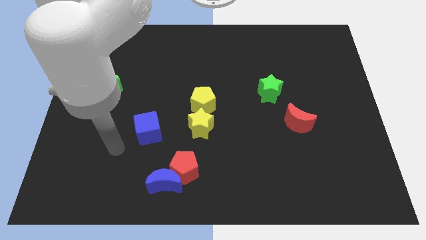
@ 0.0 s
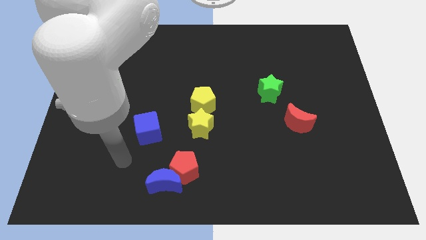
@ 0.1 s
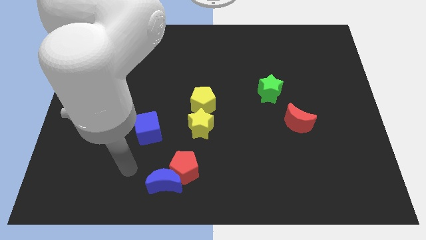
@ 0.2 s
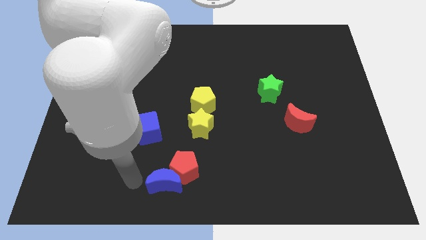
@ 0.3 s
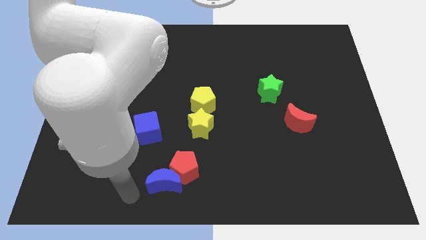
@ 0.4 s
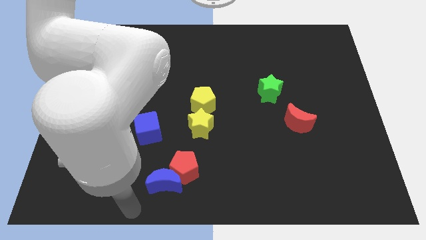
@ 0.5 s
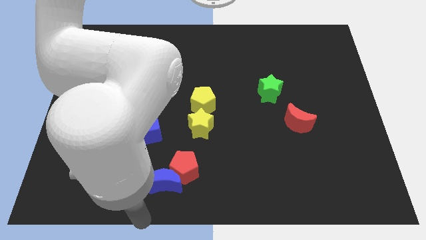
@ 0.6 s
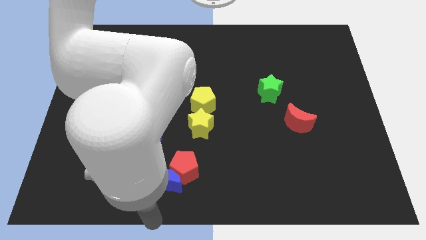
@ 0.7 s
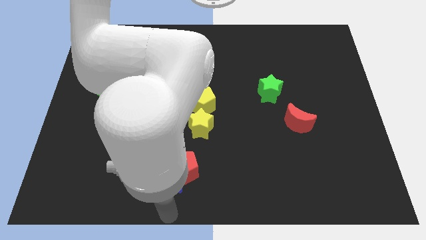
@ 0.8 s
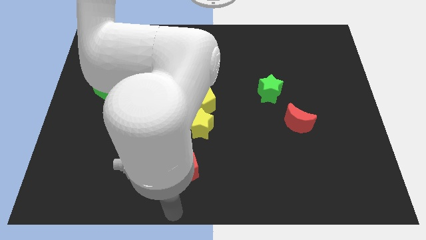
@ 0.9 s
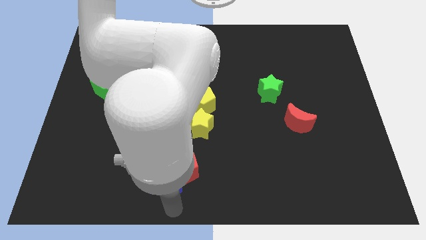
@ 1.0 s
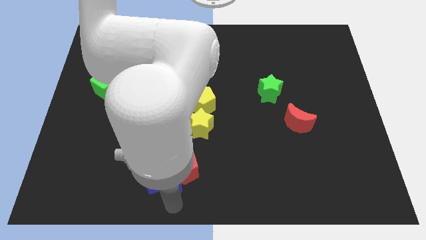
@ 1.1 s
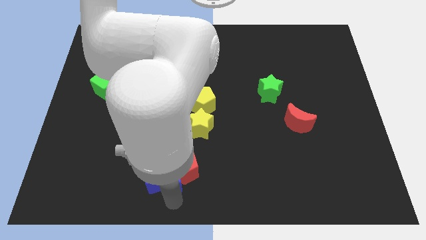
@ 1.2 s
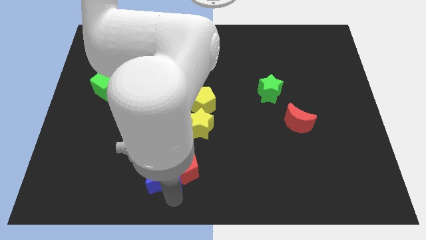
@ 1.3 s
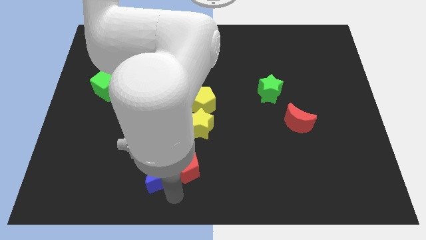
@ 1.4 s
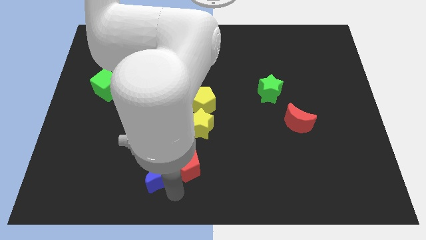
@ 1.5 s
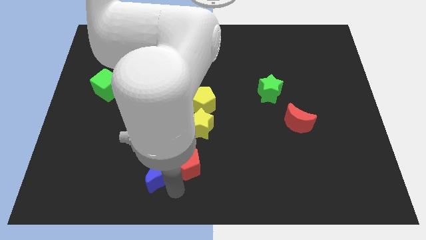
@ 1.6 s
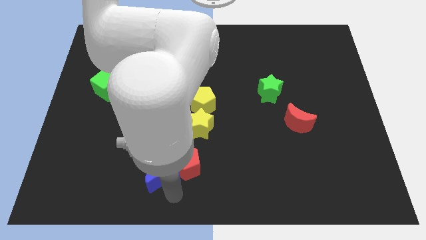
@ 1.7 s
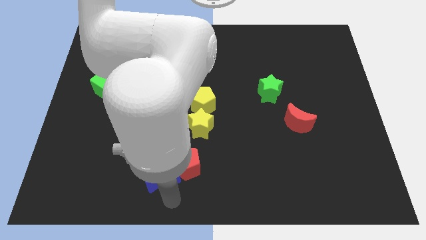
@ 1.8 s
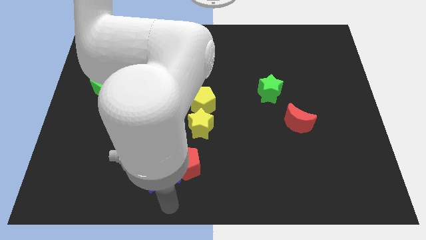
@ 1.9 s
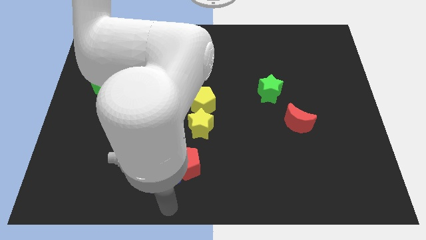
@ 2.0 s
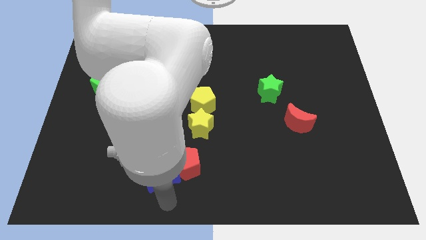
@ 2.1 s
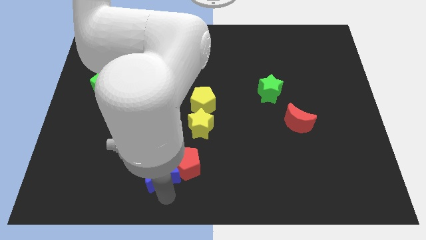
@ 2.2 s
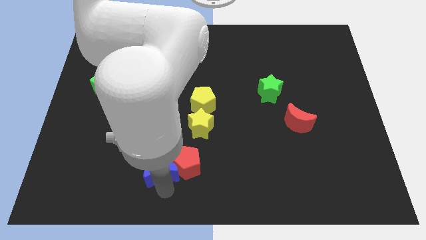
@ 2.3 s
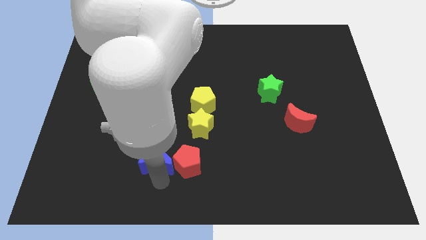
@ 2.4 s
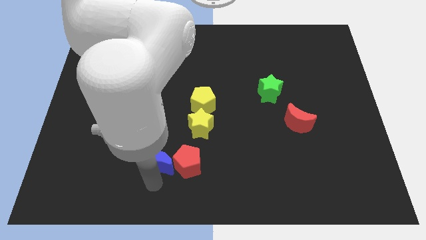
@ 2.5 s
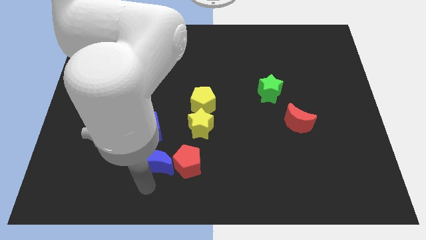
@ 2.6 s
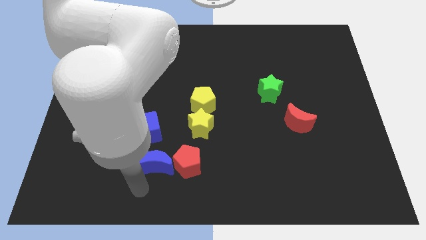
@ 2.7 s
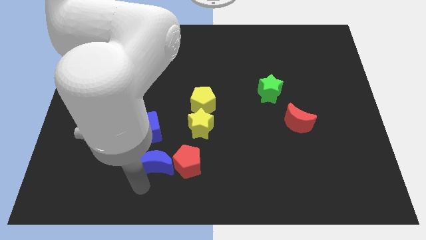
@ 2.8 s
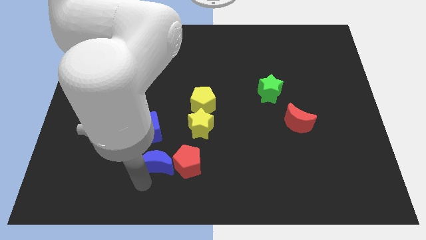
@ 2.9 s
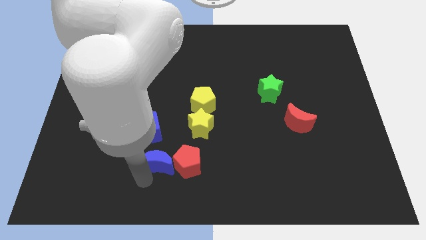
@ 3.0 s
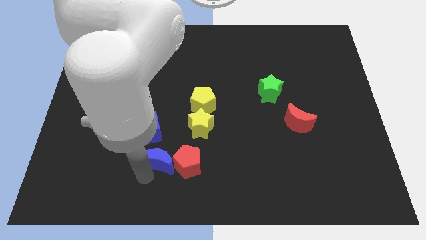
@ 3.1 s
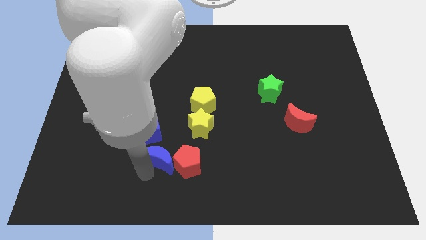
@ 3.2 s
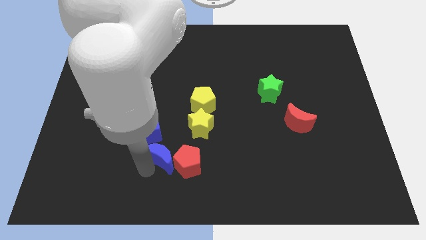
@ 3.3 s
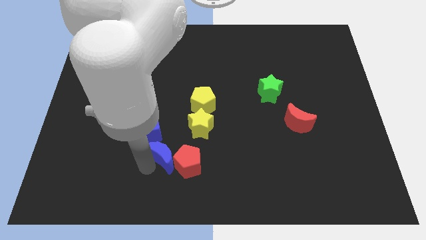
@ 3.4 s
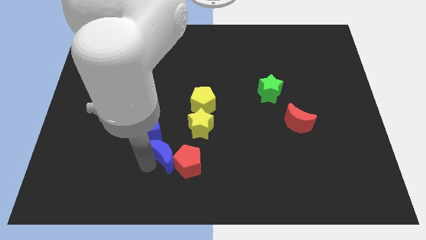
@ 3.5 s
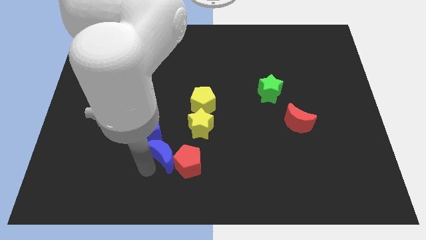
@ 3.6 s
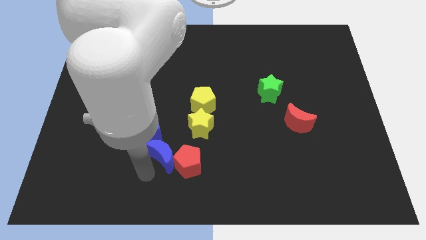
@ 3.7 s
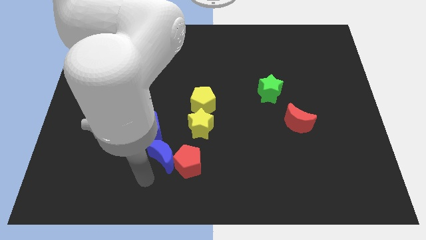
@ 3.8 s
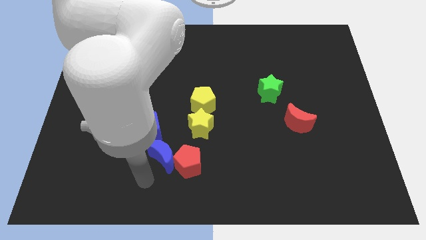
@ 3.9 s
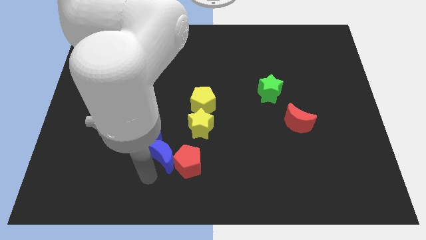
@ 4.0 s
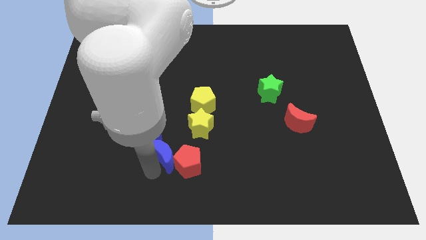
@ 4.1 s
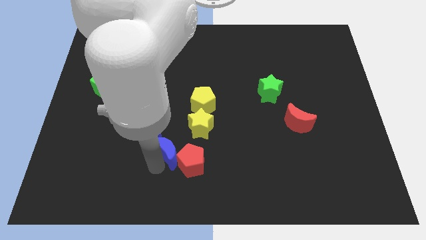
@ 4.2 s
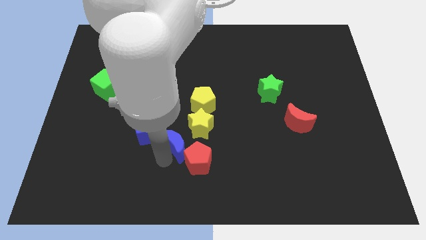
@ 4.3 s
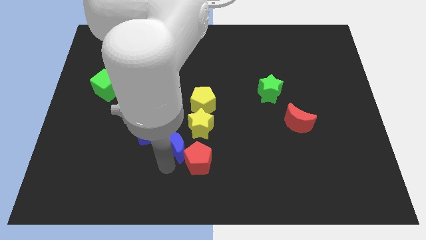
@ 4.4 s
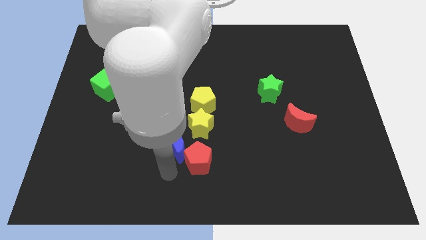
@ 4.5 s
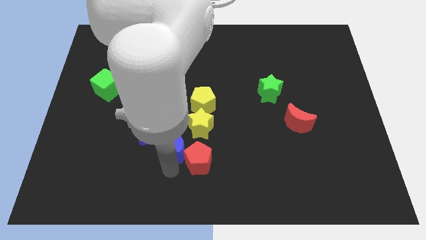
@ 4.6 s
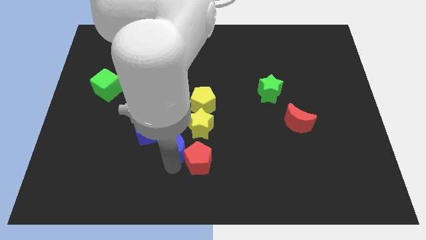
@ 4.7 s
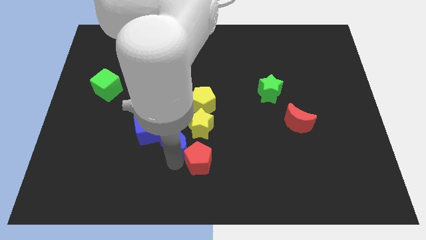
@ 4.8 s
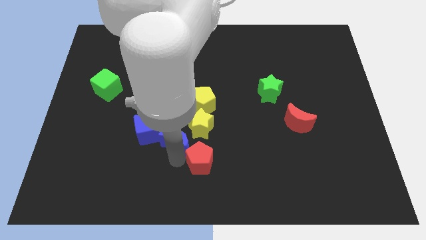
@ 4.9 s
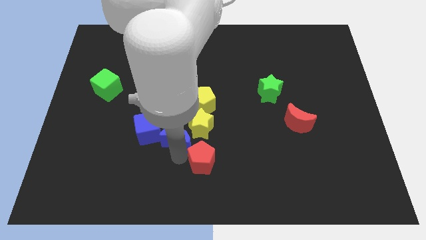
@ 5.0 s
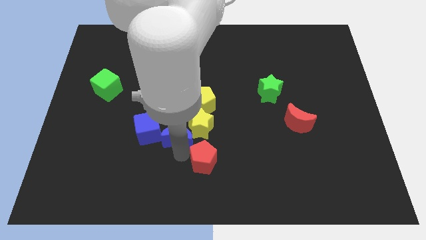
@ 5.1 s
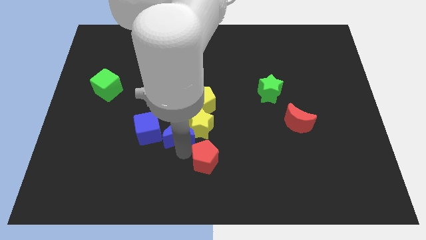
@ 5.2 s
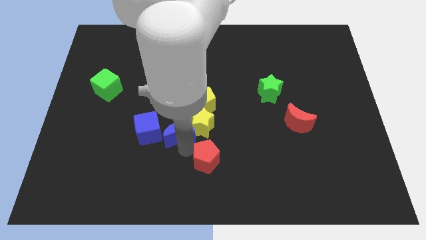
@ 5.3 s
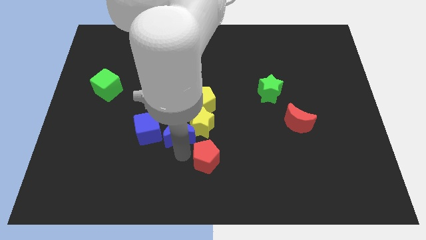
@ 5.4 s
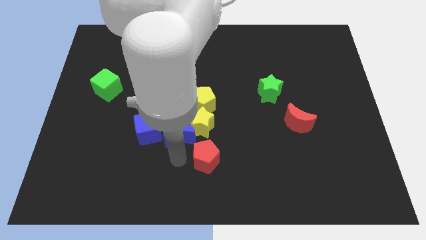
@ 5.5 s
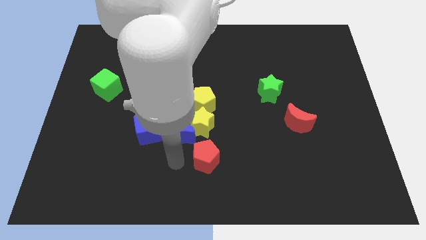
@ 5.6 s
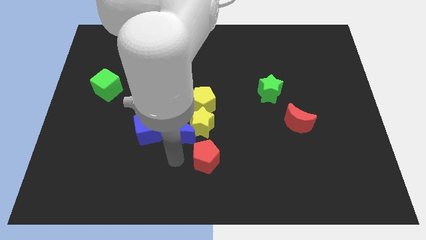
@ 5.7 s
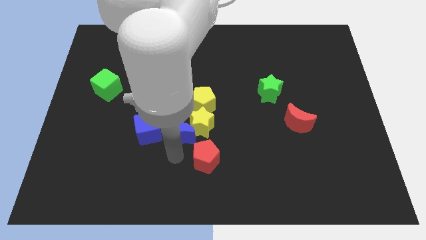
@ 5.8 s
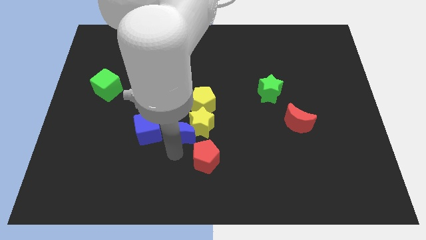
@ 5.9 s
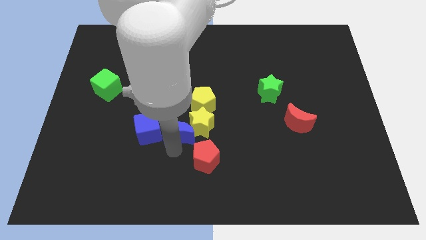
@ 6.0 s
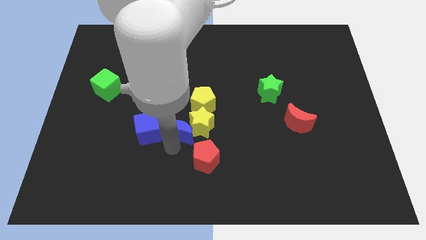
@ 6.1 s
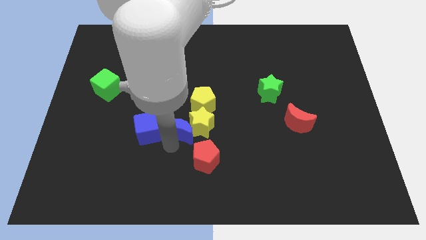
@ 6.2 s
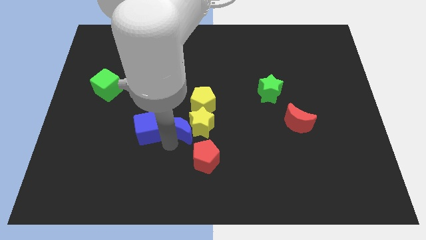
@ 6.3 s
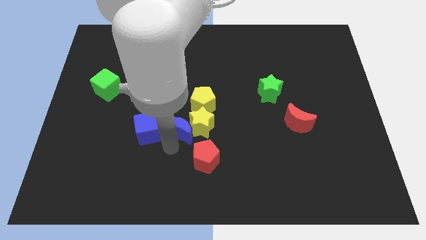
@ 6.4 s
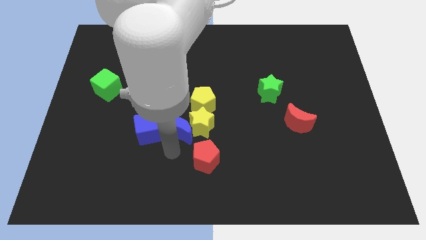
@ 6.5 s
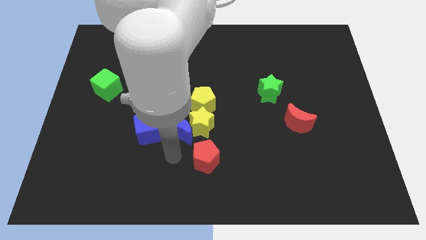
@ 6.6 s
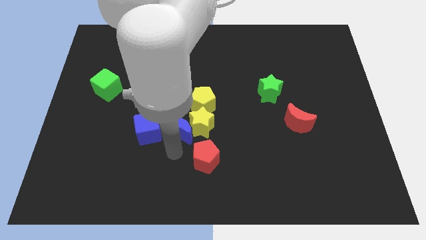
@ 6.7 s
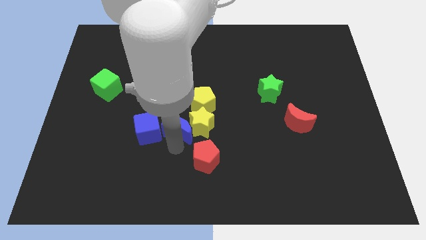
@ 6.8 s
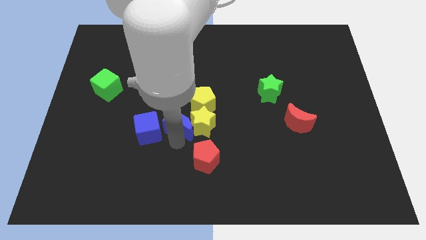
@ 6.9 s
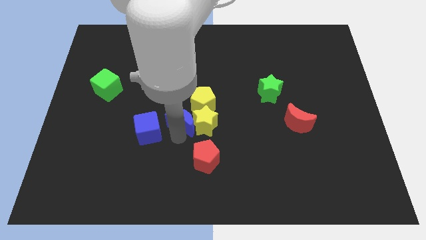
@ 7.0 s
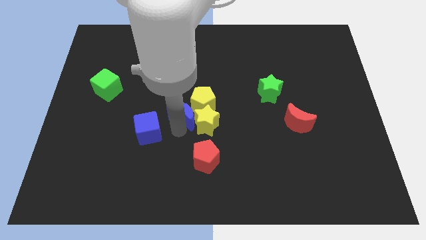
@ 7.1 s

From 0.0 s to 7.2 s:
move the blue moon to the yellow pentagon
